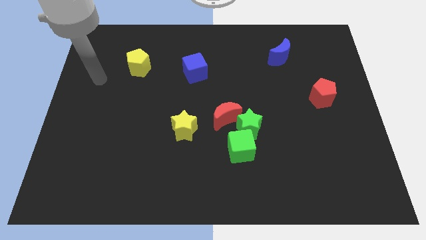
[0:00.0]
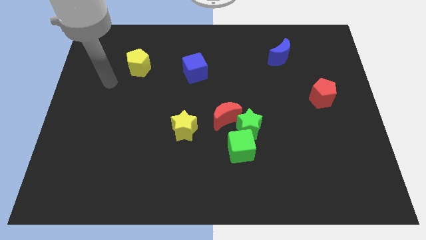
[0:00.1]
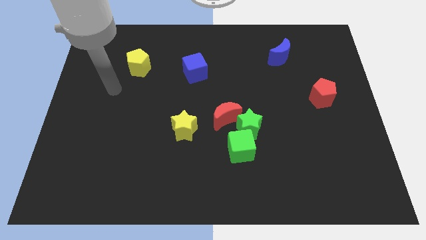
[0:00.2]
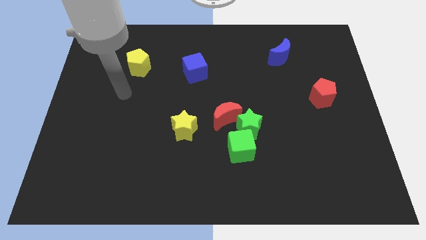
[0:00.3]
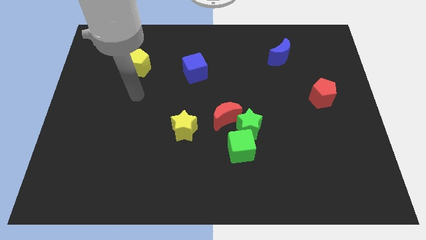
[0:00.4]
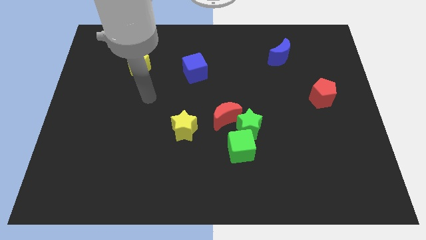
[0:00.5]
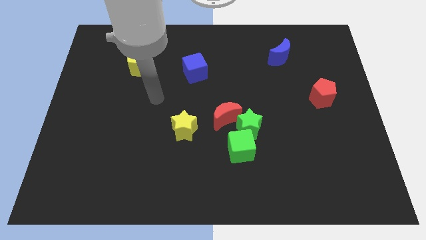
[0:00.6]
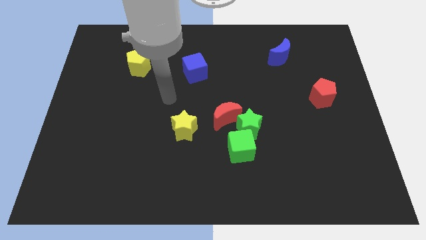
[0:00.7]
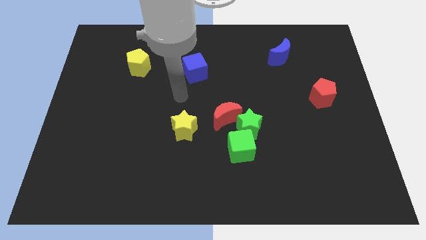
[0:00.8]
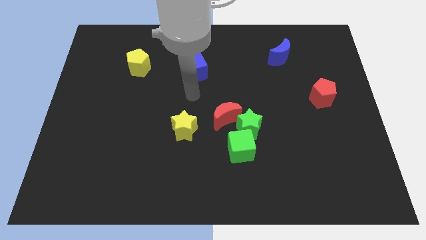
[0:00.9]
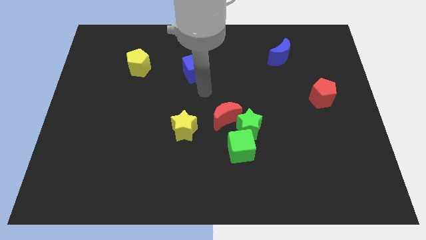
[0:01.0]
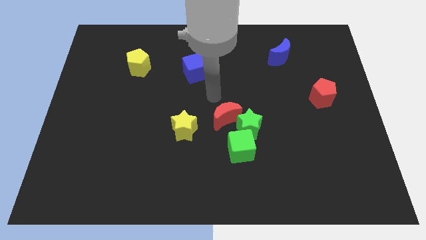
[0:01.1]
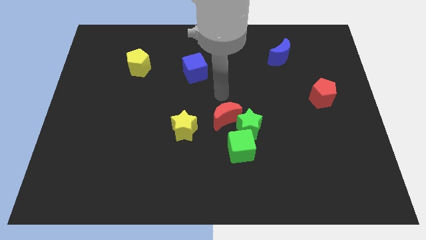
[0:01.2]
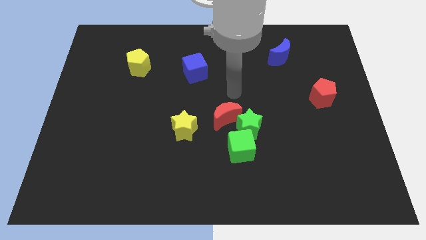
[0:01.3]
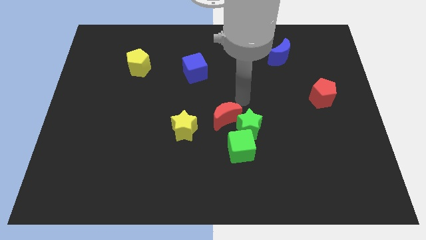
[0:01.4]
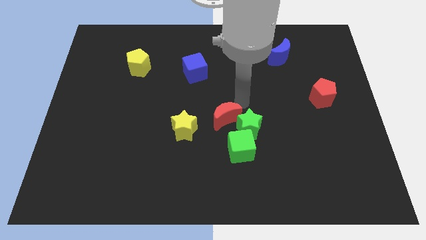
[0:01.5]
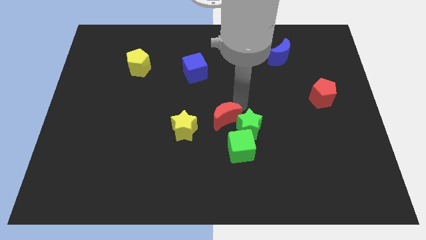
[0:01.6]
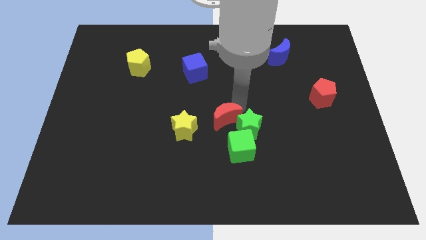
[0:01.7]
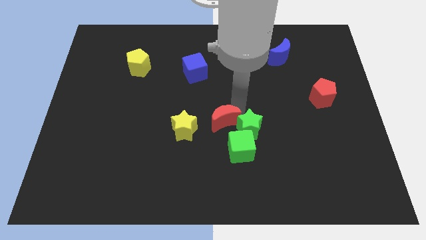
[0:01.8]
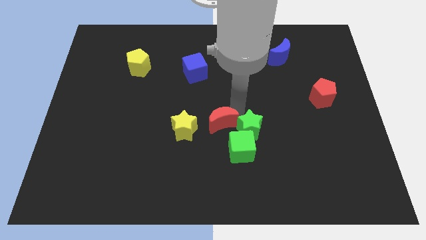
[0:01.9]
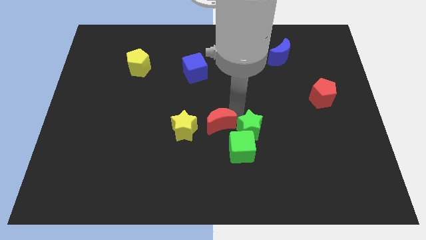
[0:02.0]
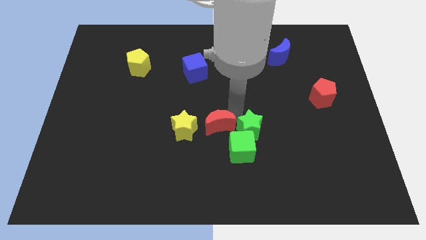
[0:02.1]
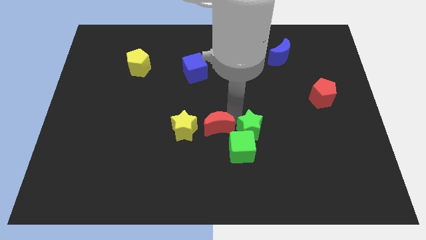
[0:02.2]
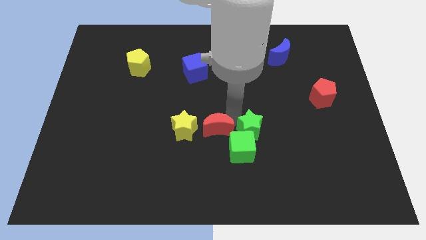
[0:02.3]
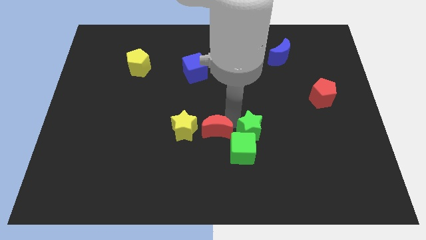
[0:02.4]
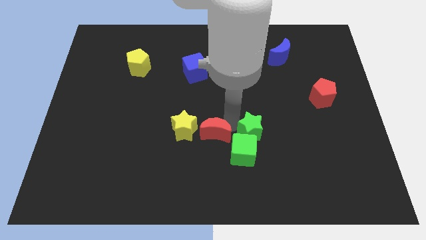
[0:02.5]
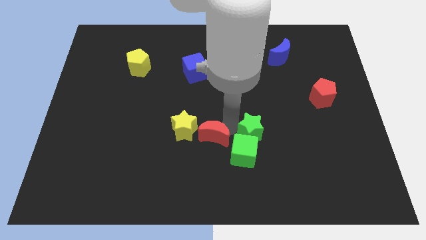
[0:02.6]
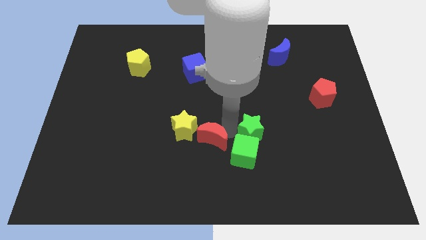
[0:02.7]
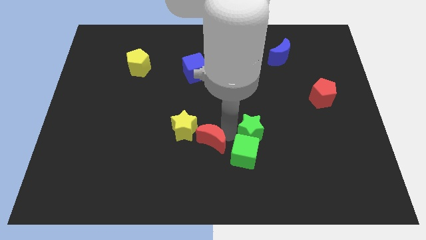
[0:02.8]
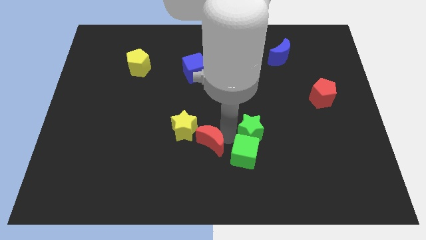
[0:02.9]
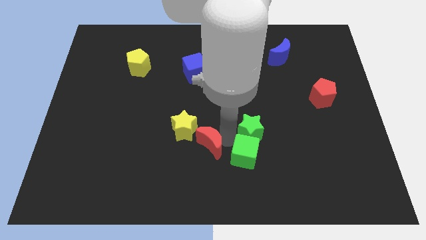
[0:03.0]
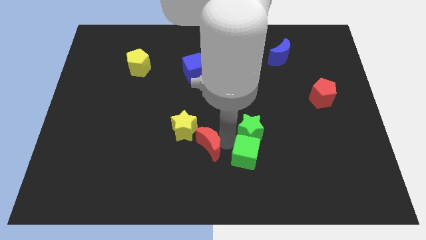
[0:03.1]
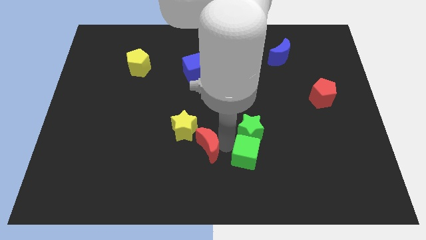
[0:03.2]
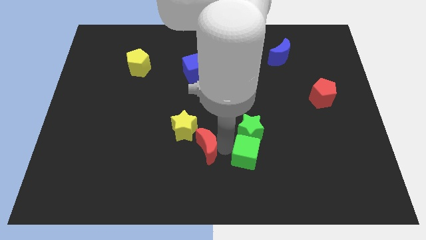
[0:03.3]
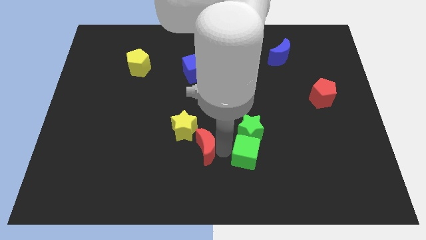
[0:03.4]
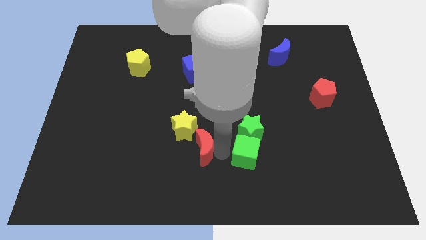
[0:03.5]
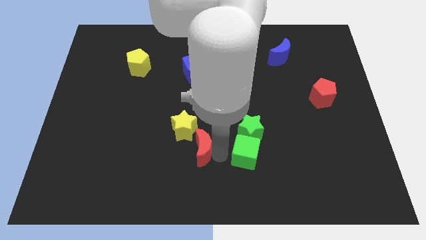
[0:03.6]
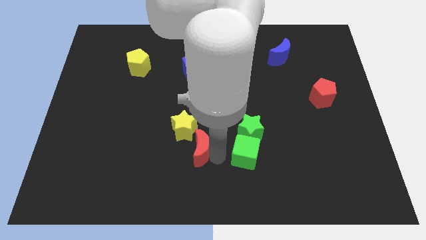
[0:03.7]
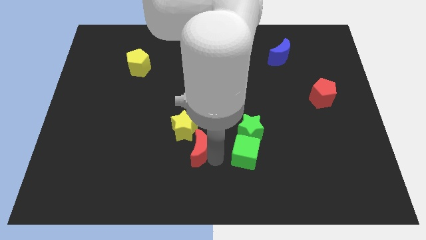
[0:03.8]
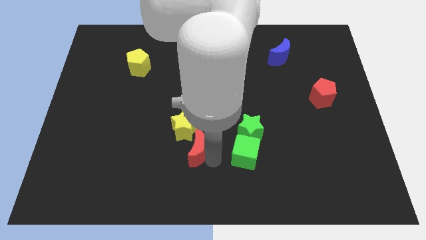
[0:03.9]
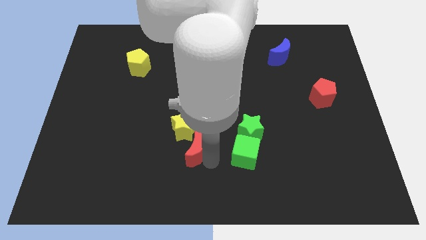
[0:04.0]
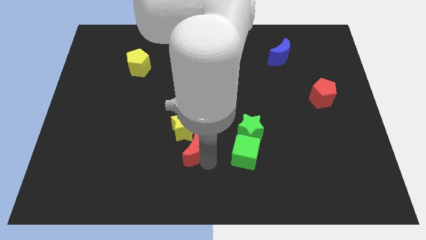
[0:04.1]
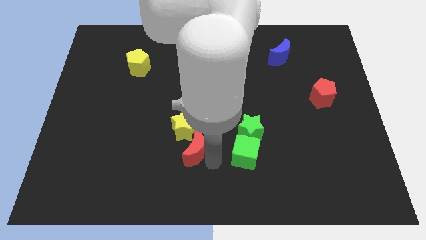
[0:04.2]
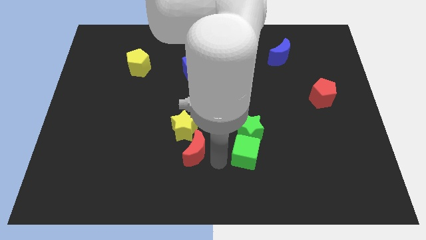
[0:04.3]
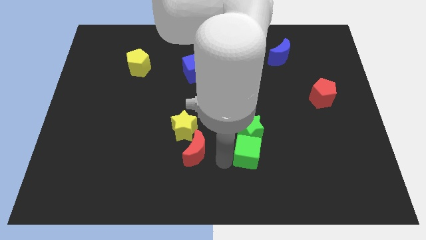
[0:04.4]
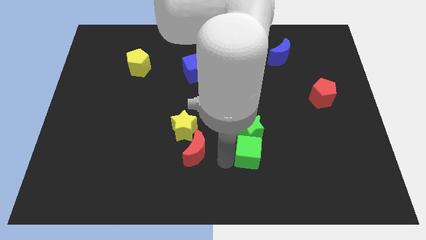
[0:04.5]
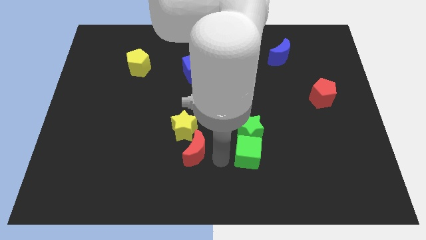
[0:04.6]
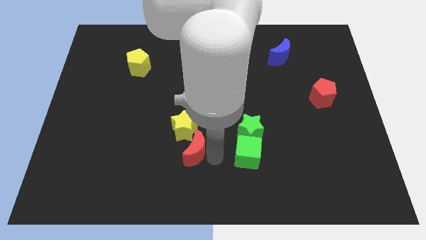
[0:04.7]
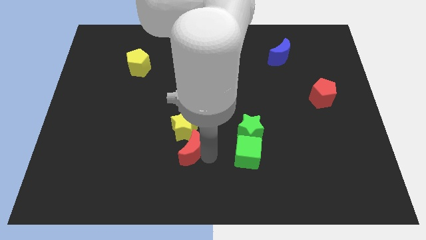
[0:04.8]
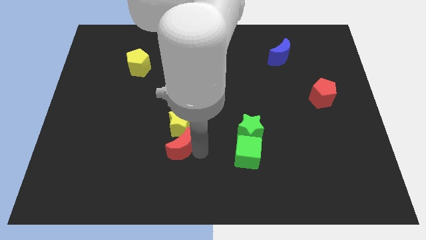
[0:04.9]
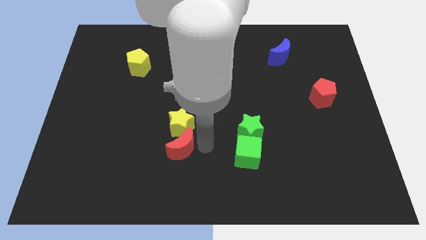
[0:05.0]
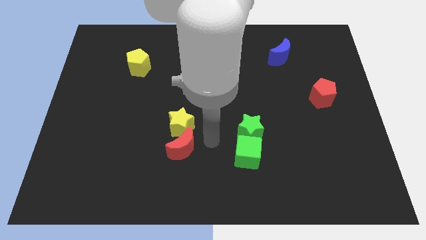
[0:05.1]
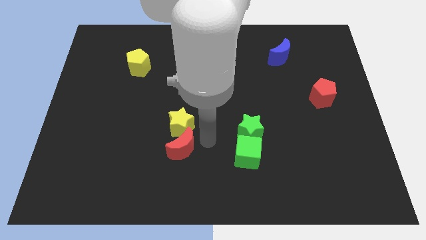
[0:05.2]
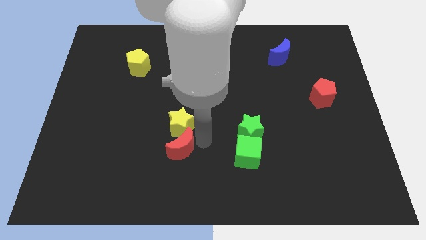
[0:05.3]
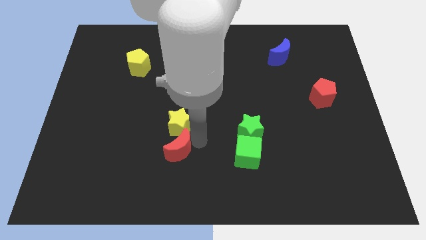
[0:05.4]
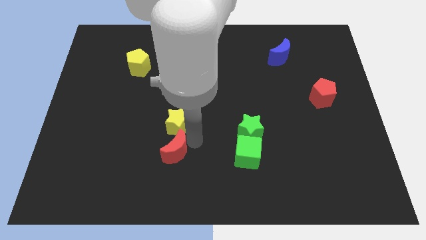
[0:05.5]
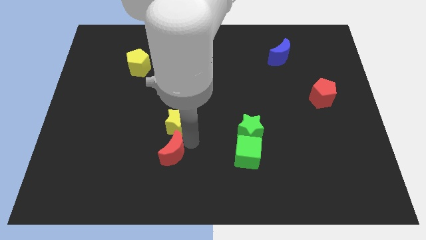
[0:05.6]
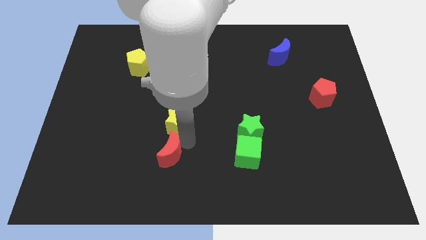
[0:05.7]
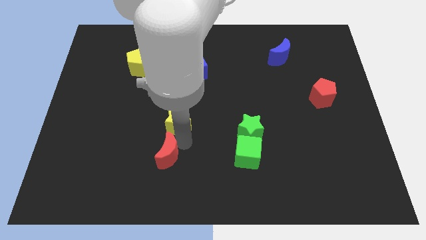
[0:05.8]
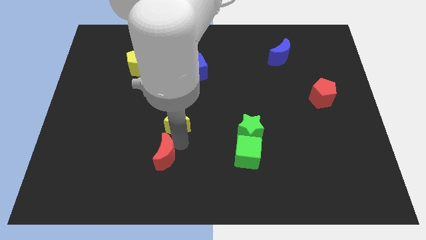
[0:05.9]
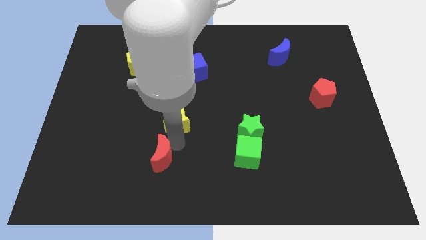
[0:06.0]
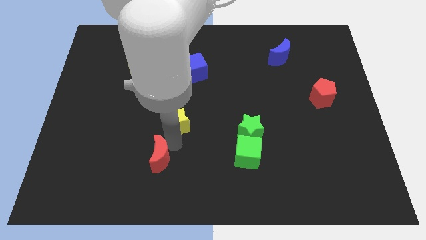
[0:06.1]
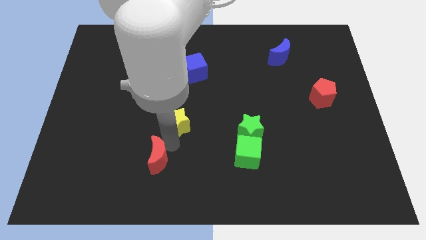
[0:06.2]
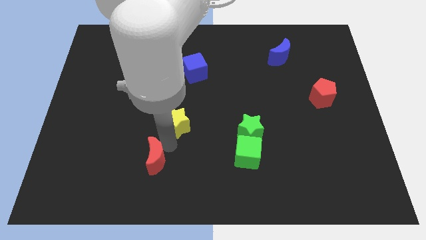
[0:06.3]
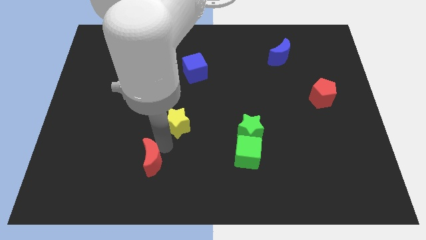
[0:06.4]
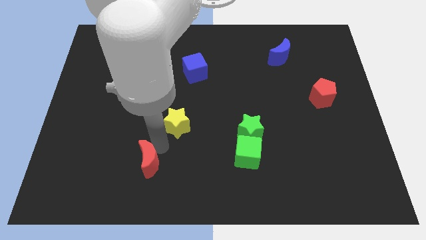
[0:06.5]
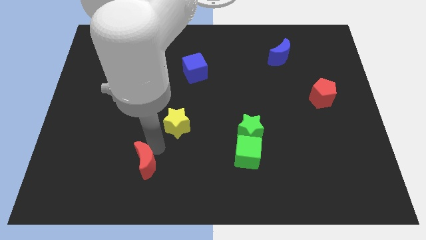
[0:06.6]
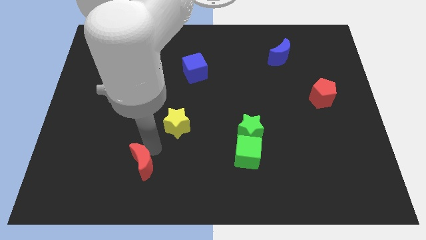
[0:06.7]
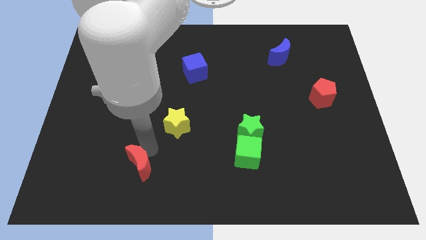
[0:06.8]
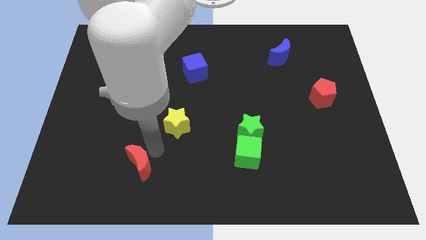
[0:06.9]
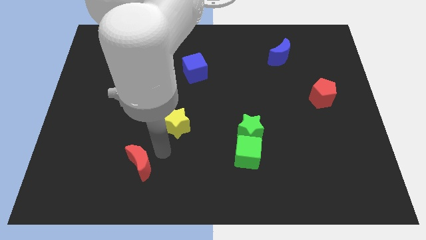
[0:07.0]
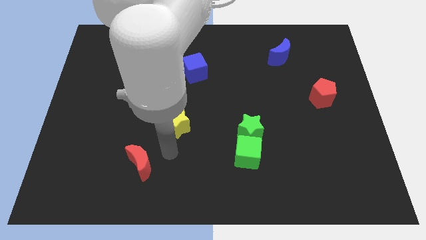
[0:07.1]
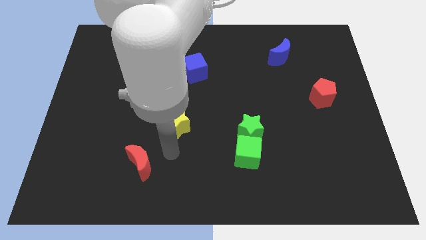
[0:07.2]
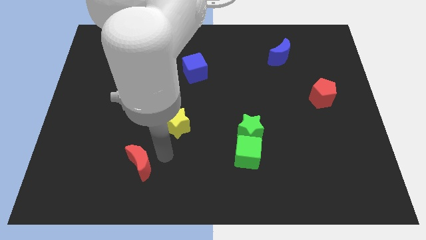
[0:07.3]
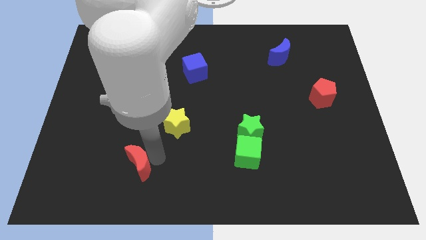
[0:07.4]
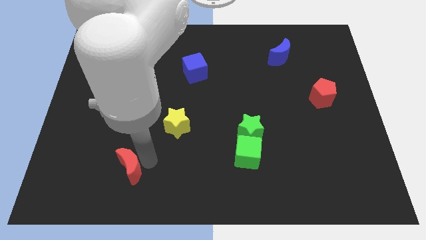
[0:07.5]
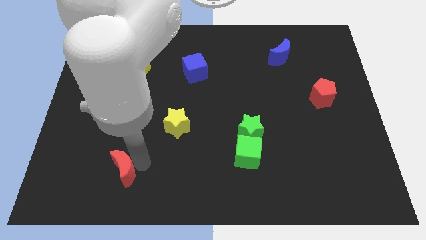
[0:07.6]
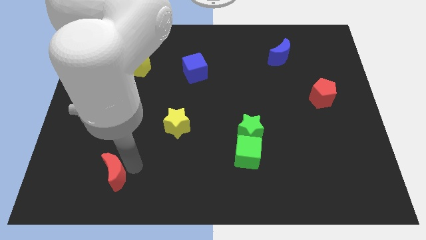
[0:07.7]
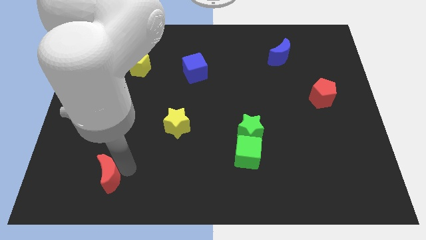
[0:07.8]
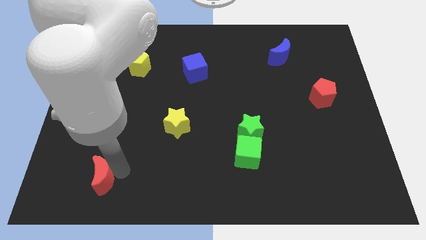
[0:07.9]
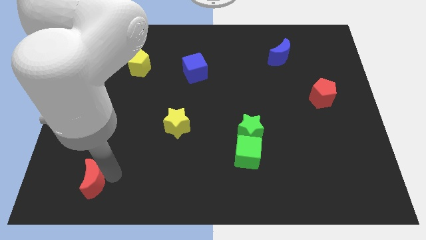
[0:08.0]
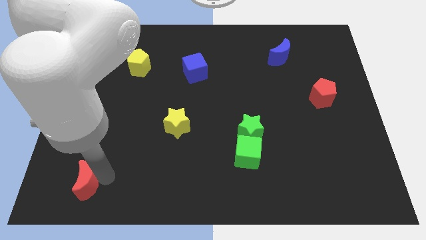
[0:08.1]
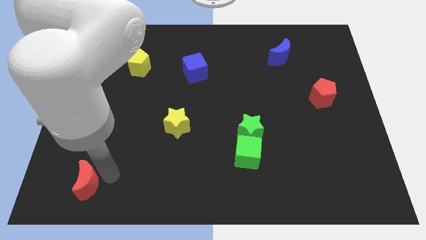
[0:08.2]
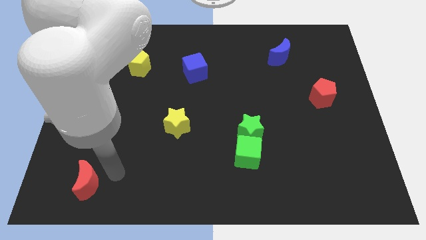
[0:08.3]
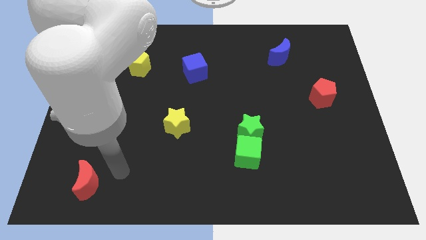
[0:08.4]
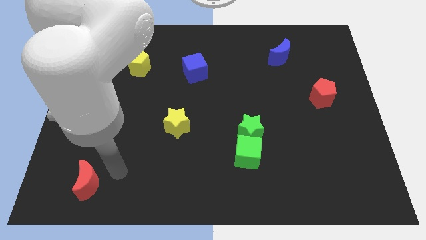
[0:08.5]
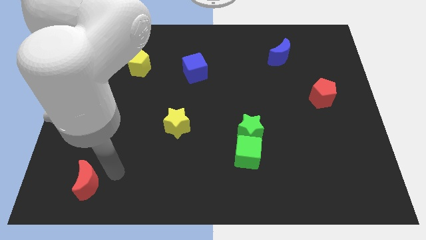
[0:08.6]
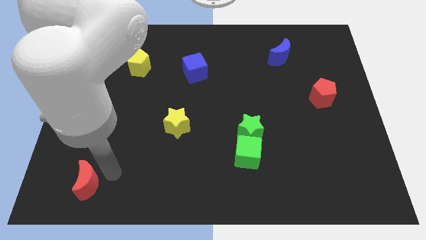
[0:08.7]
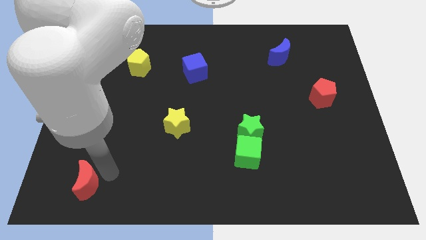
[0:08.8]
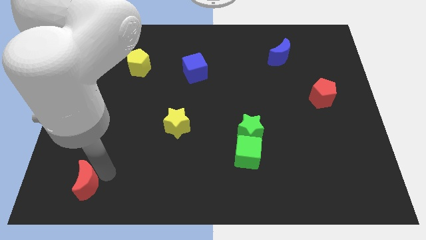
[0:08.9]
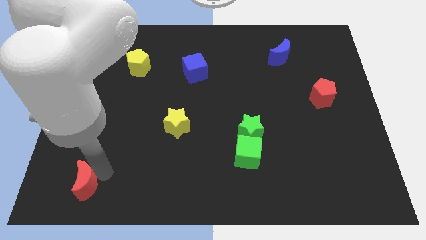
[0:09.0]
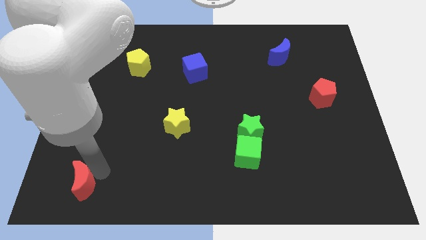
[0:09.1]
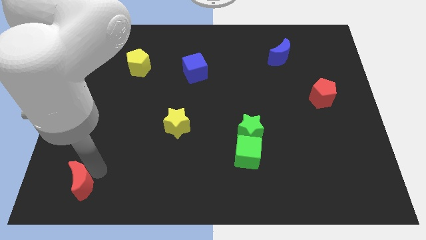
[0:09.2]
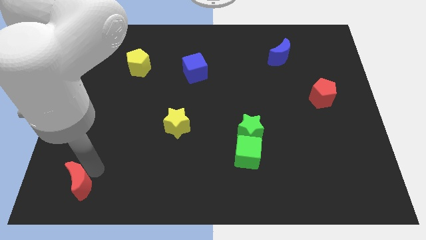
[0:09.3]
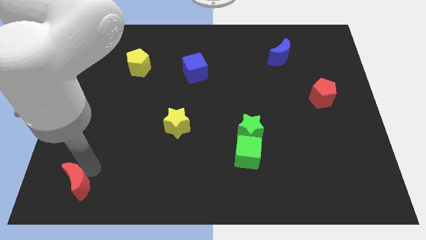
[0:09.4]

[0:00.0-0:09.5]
slide the red moon to the bottom left corner
